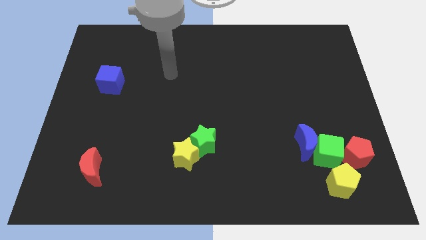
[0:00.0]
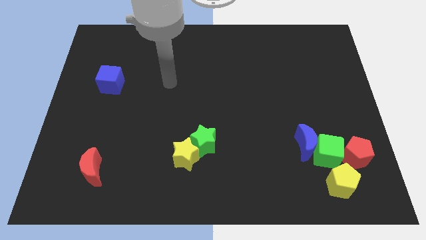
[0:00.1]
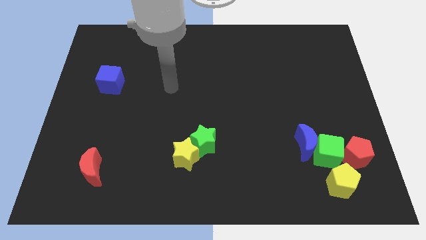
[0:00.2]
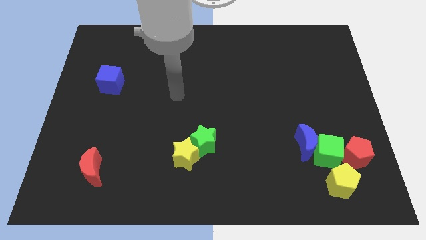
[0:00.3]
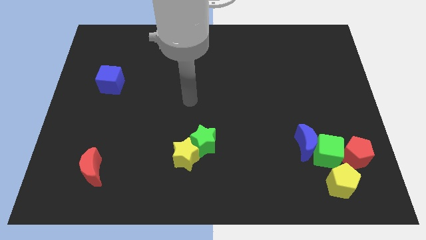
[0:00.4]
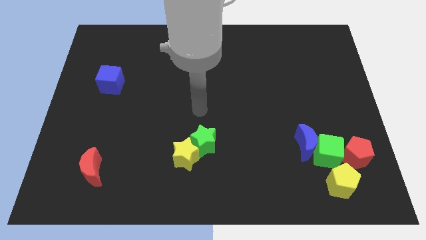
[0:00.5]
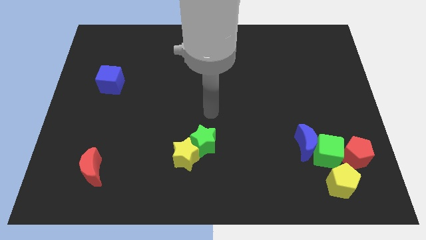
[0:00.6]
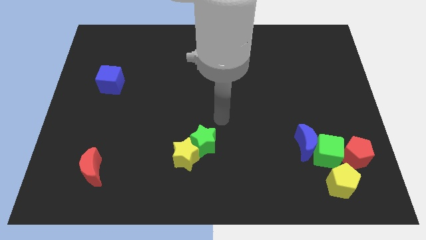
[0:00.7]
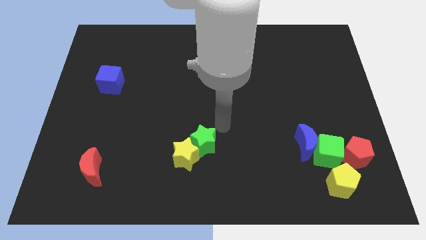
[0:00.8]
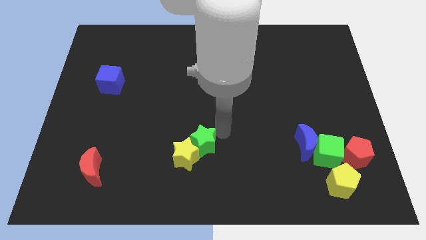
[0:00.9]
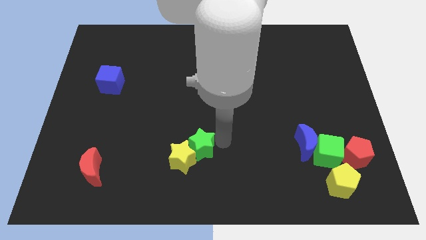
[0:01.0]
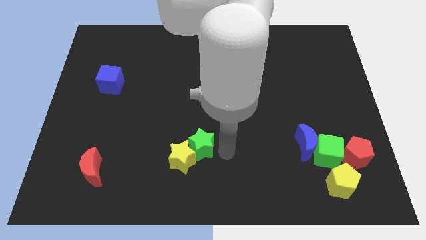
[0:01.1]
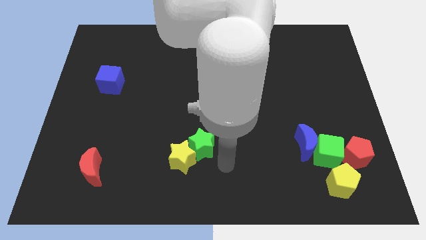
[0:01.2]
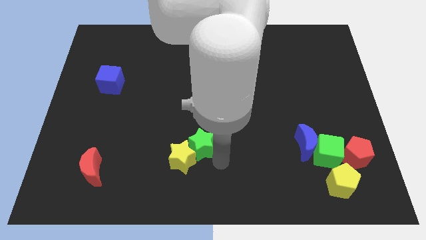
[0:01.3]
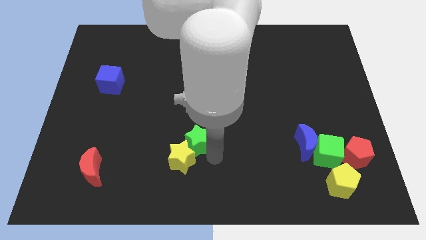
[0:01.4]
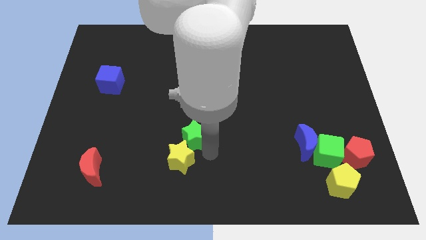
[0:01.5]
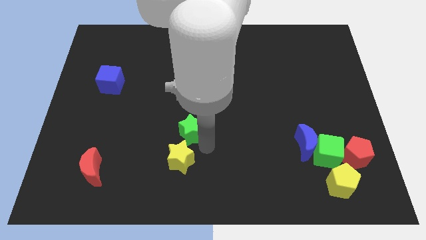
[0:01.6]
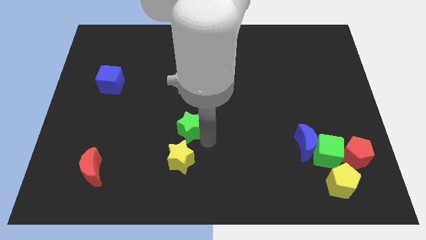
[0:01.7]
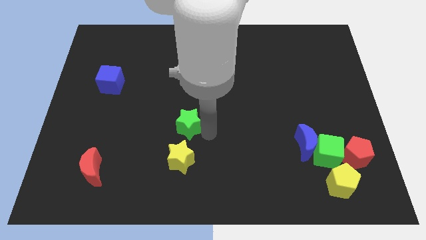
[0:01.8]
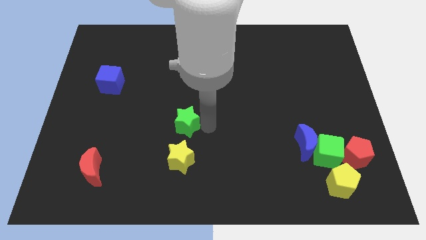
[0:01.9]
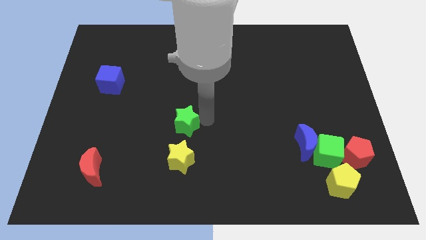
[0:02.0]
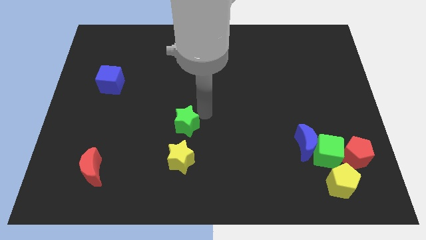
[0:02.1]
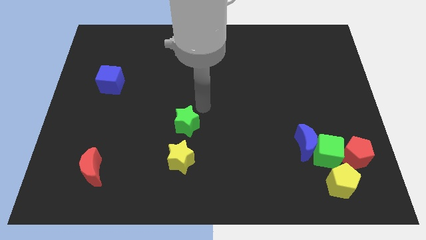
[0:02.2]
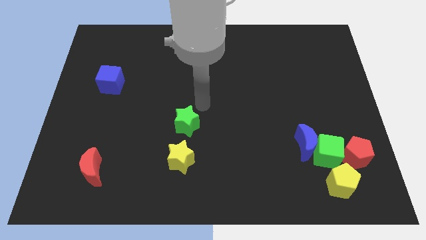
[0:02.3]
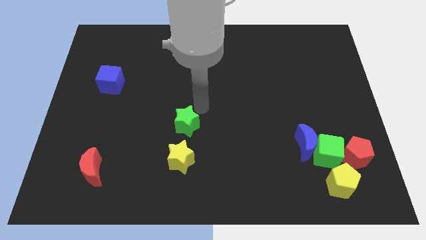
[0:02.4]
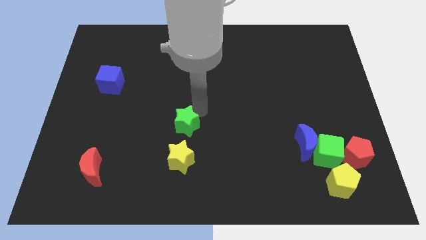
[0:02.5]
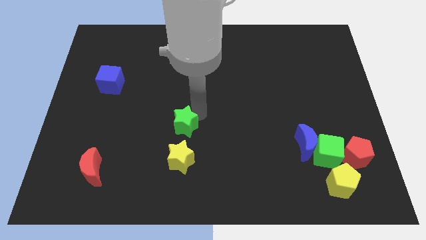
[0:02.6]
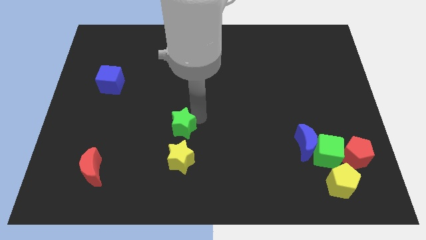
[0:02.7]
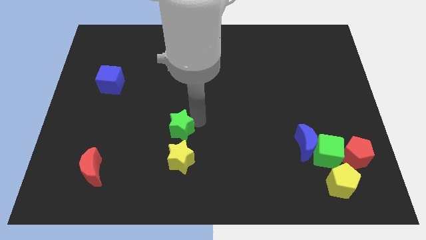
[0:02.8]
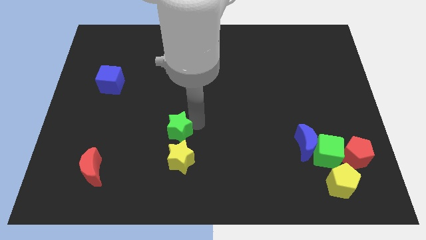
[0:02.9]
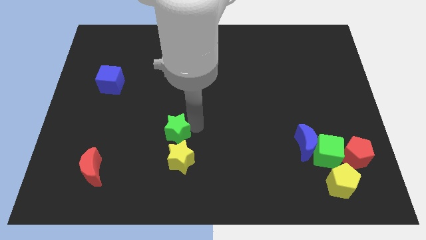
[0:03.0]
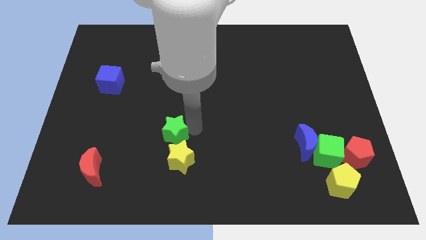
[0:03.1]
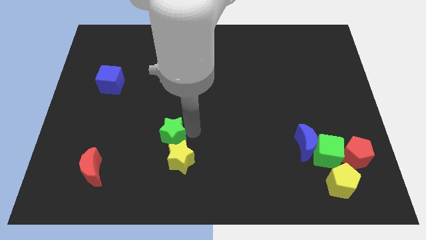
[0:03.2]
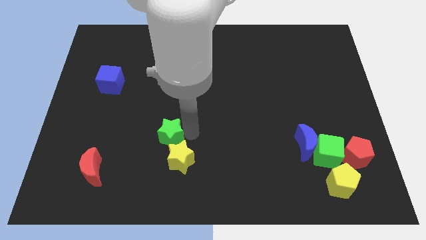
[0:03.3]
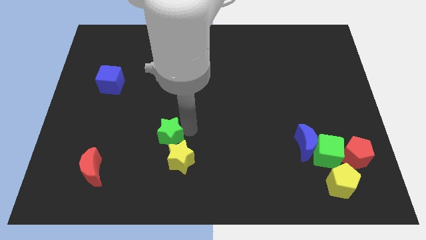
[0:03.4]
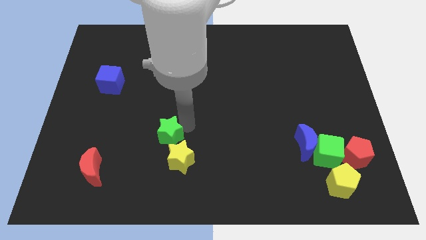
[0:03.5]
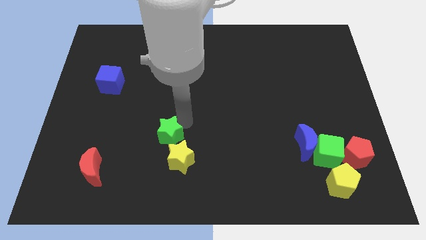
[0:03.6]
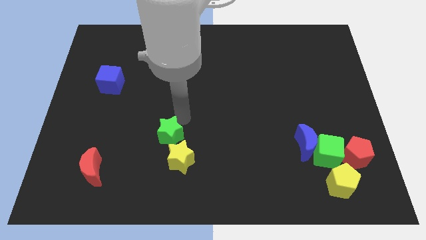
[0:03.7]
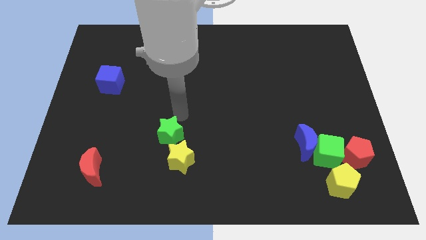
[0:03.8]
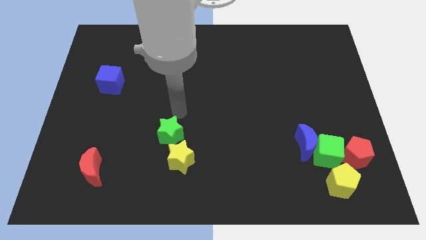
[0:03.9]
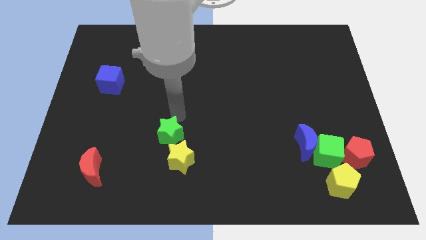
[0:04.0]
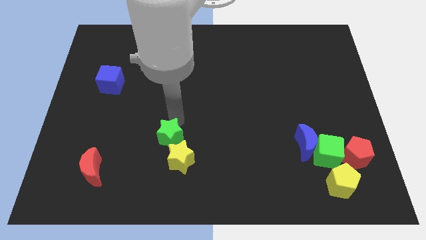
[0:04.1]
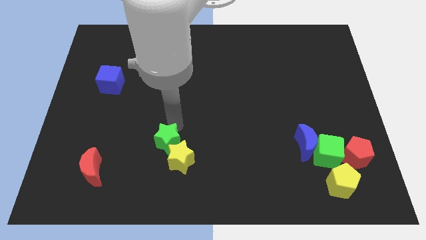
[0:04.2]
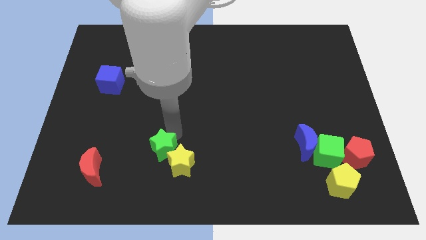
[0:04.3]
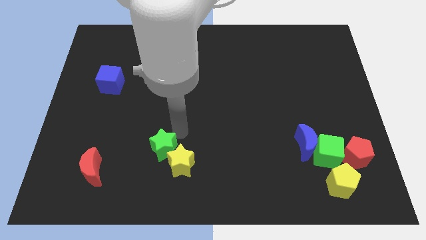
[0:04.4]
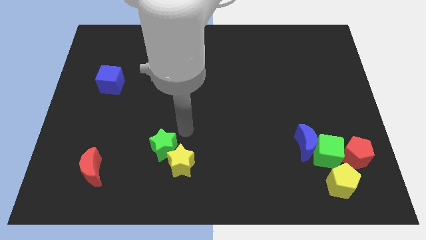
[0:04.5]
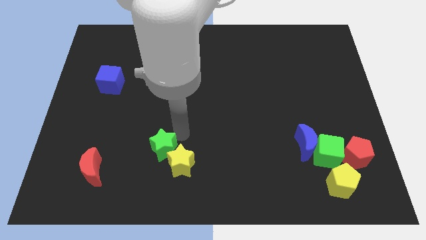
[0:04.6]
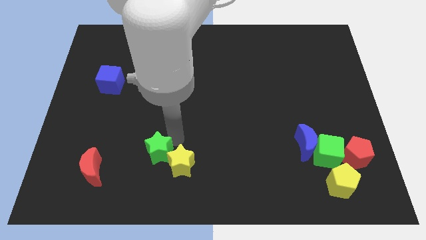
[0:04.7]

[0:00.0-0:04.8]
move the green star to the right side of the red moon

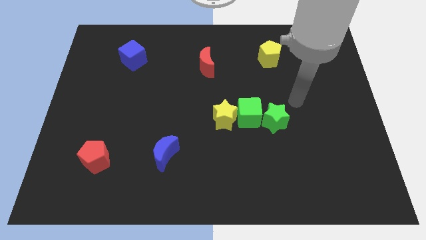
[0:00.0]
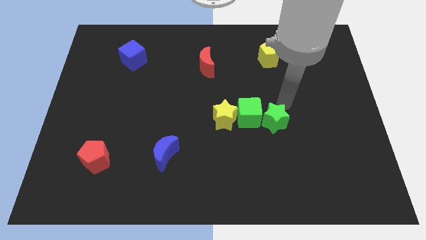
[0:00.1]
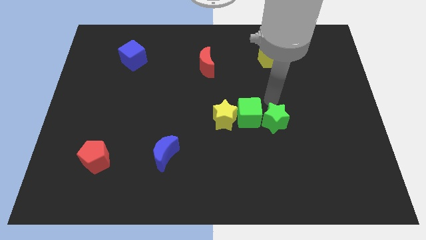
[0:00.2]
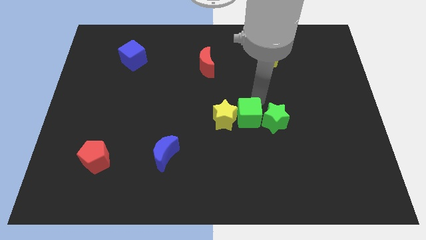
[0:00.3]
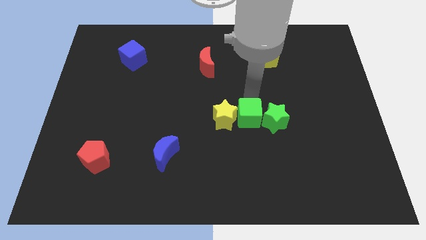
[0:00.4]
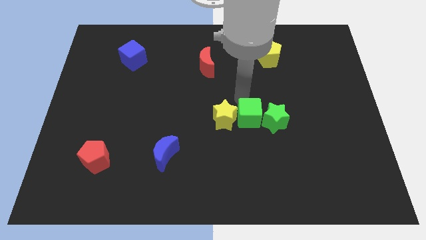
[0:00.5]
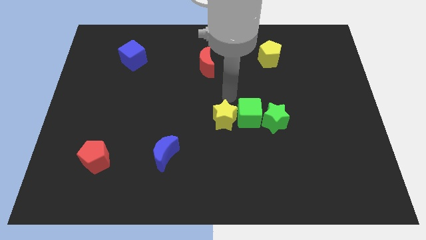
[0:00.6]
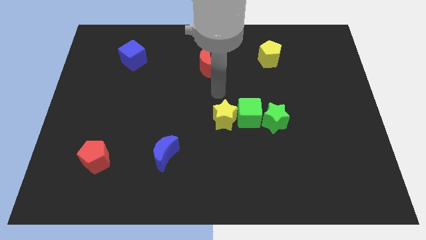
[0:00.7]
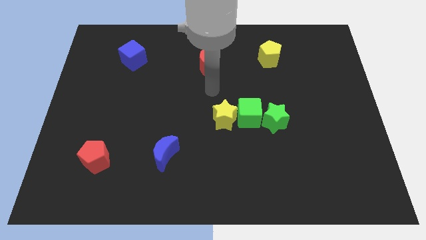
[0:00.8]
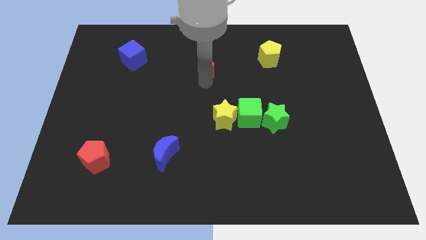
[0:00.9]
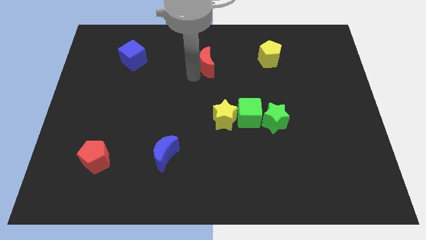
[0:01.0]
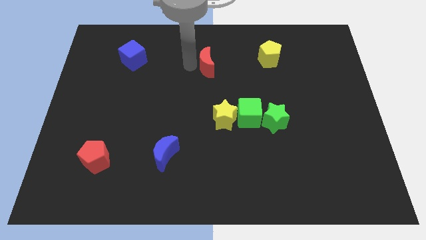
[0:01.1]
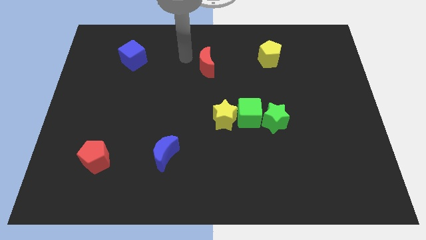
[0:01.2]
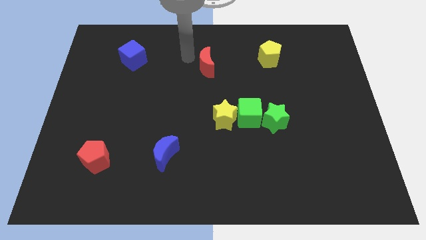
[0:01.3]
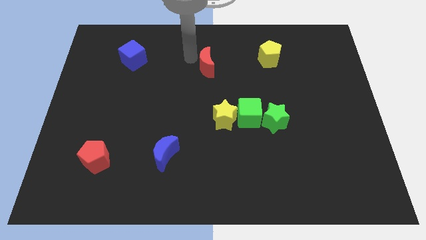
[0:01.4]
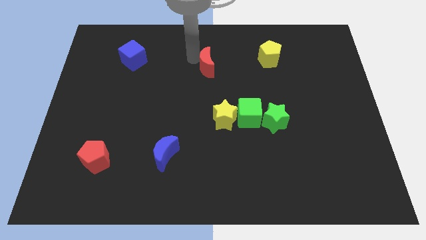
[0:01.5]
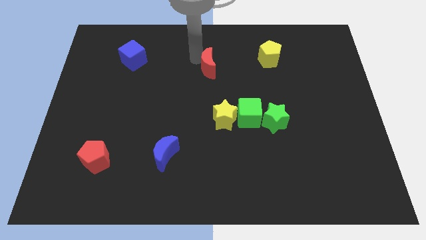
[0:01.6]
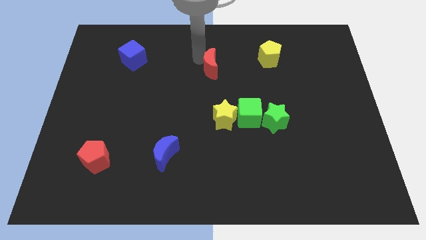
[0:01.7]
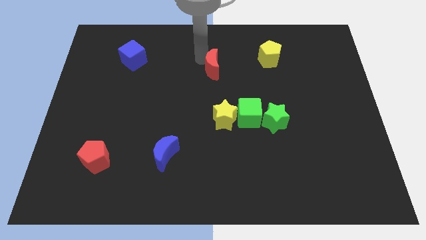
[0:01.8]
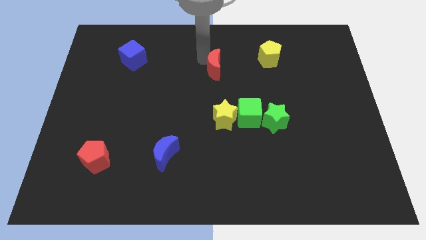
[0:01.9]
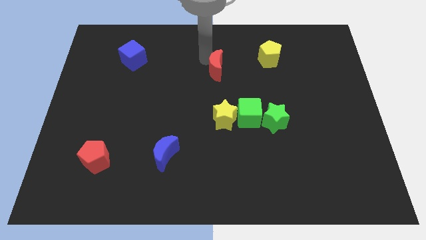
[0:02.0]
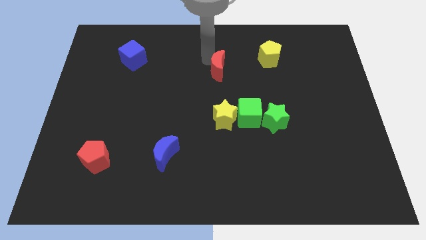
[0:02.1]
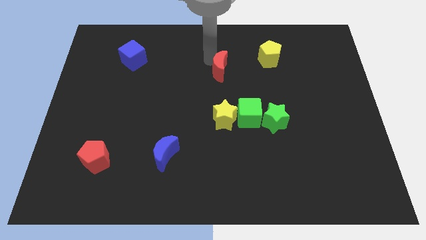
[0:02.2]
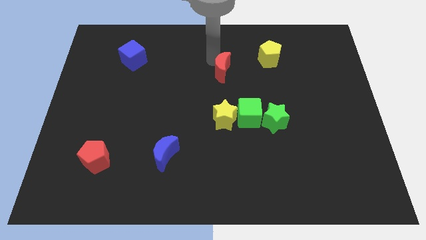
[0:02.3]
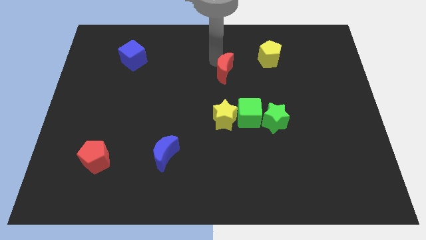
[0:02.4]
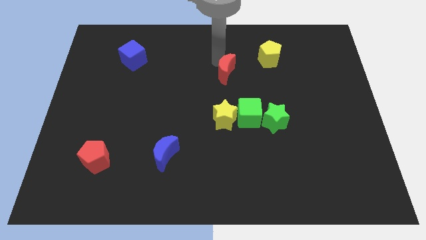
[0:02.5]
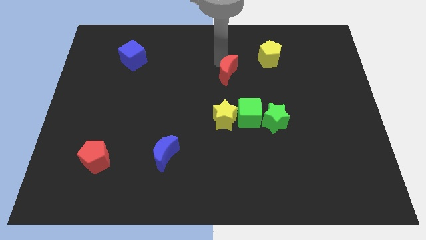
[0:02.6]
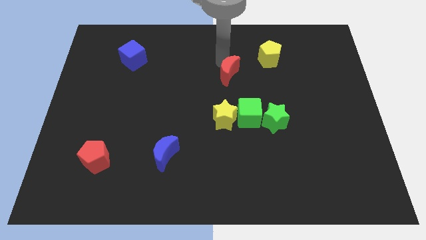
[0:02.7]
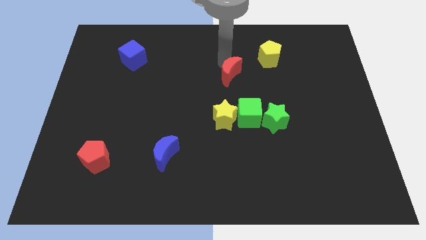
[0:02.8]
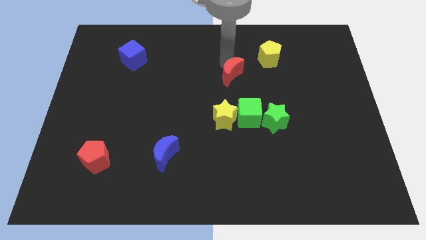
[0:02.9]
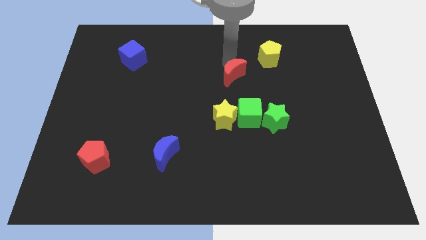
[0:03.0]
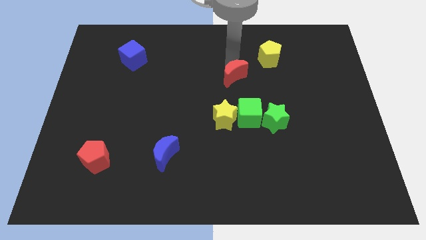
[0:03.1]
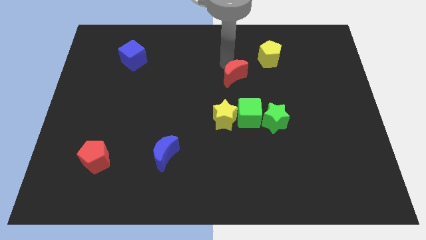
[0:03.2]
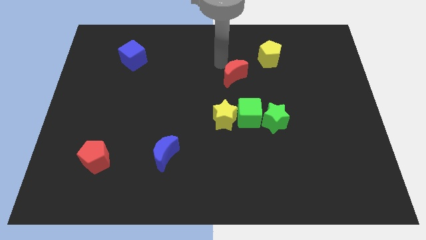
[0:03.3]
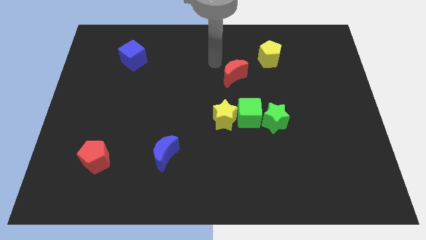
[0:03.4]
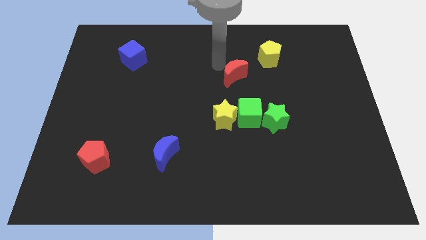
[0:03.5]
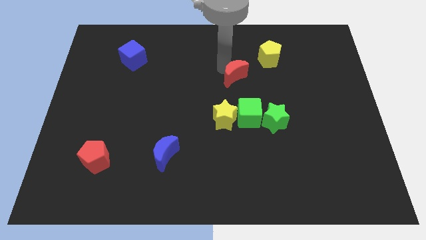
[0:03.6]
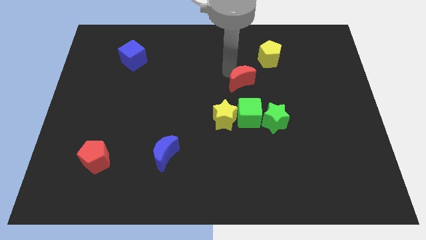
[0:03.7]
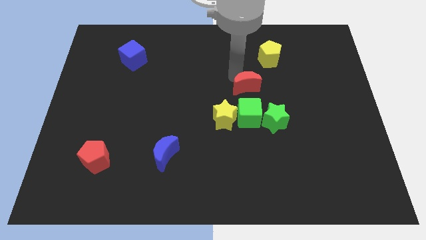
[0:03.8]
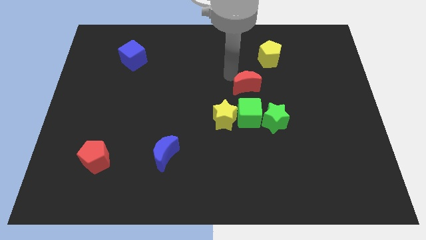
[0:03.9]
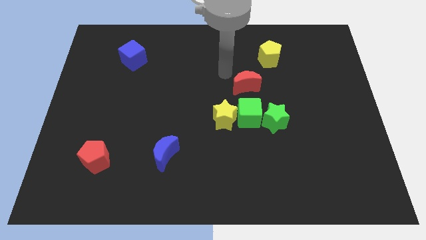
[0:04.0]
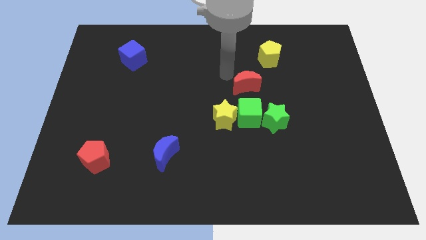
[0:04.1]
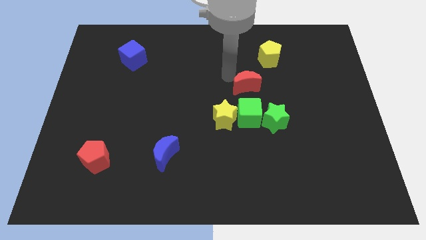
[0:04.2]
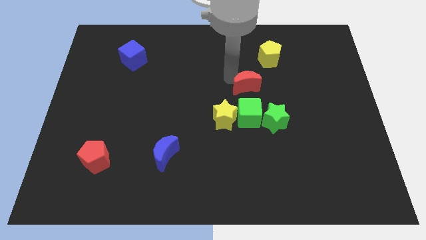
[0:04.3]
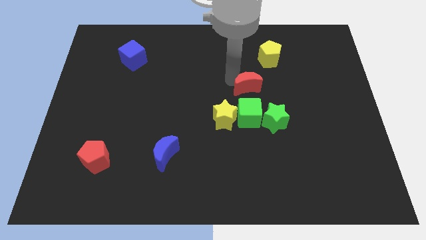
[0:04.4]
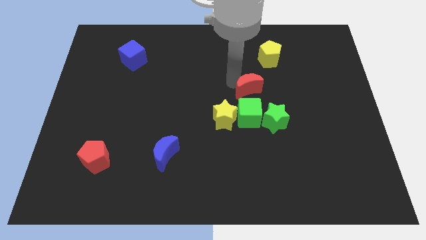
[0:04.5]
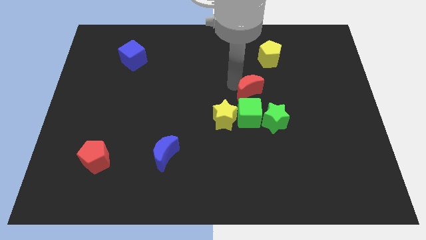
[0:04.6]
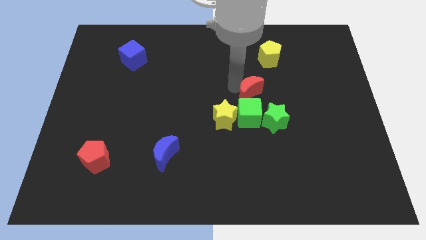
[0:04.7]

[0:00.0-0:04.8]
move the red moon to the top right of the green cube
